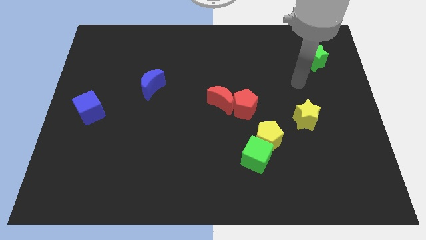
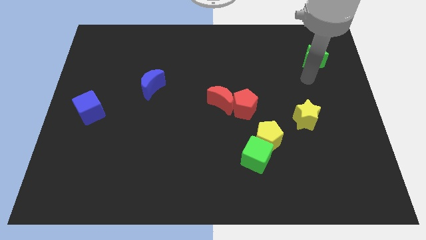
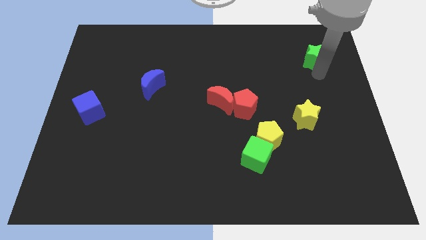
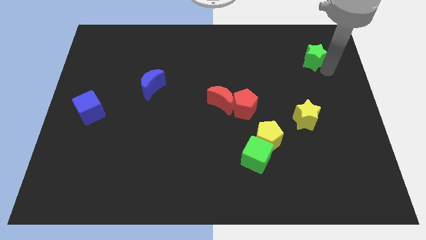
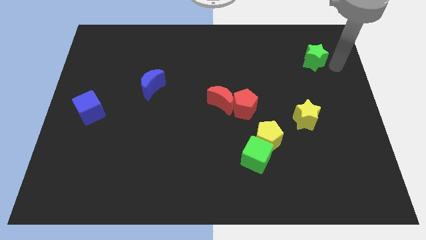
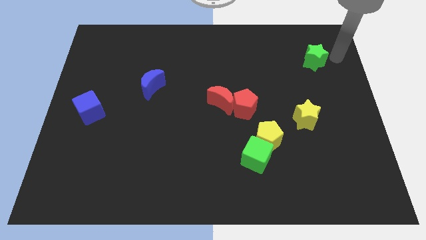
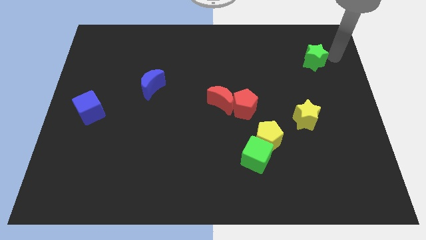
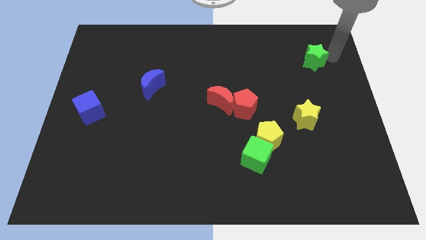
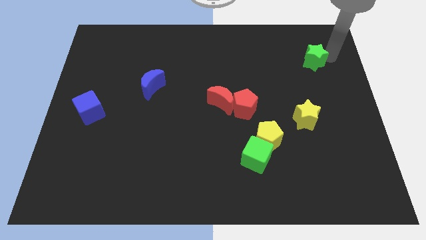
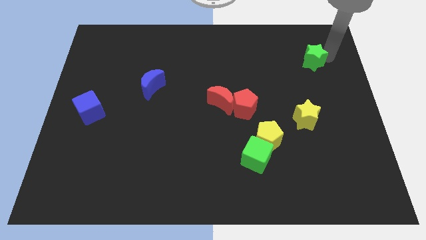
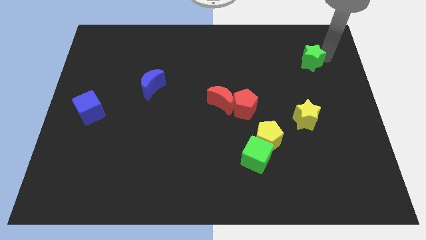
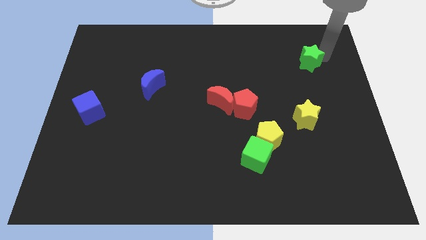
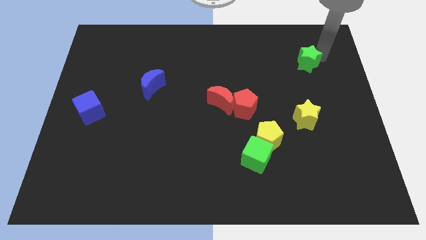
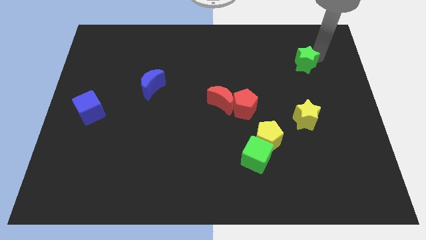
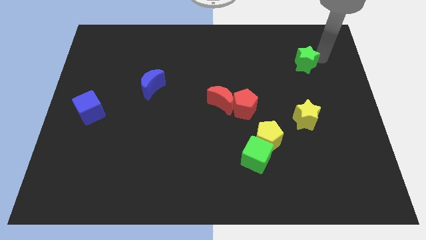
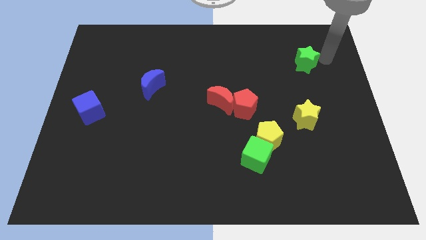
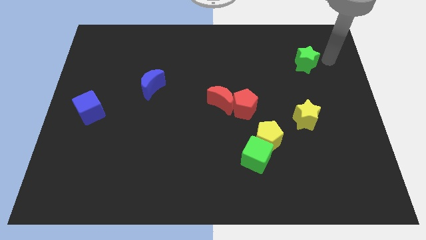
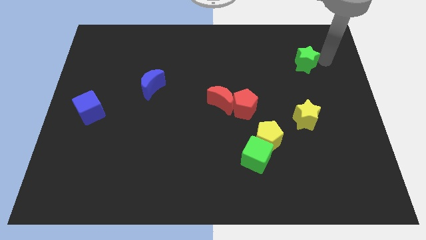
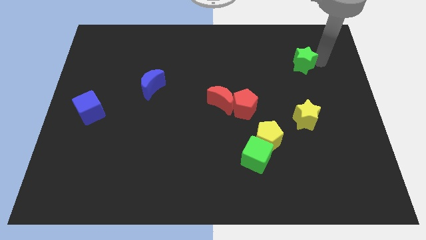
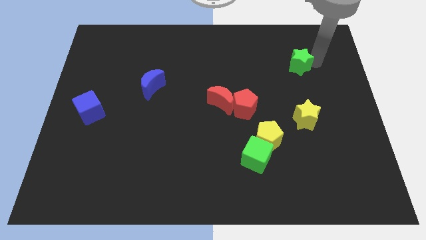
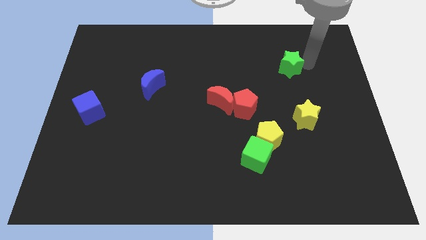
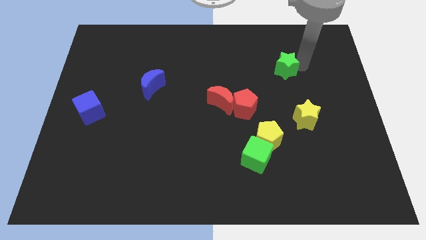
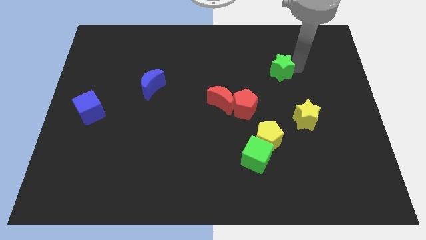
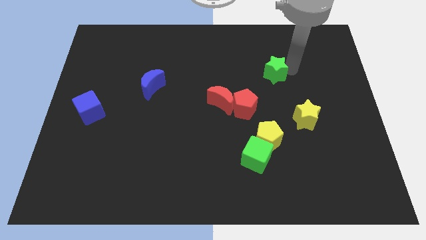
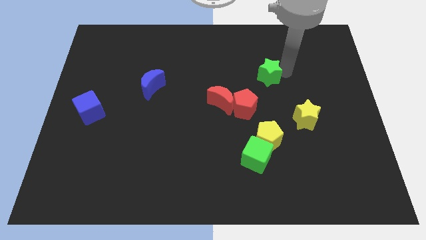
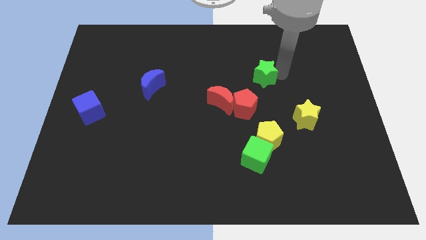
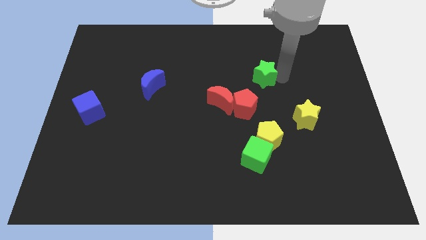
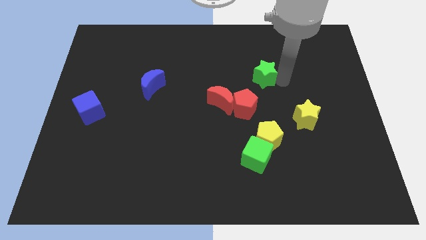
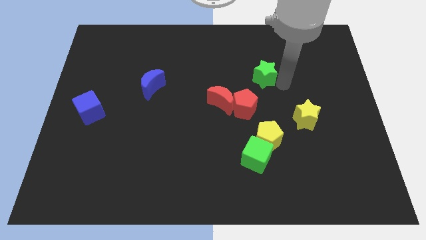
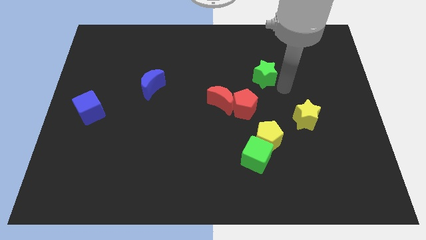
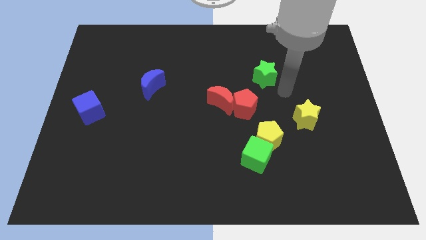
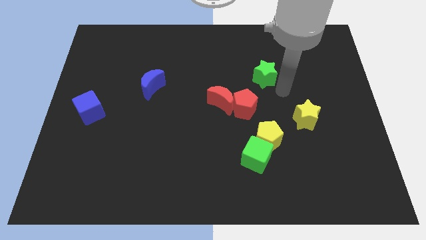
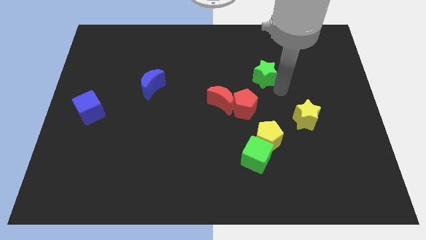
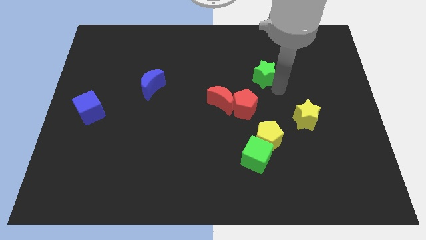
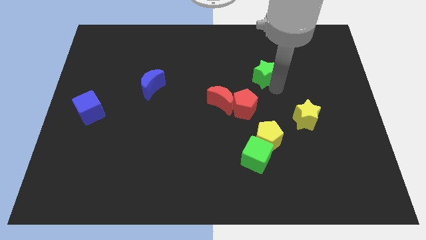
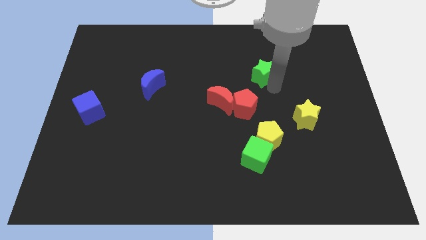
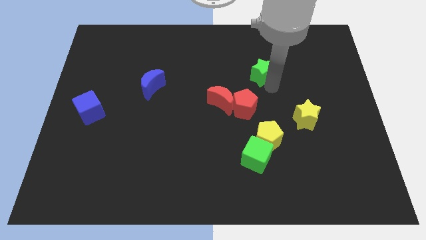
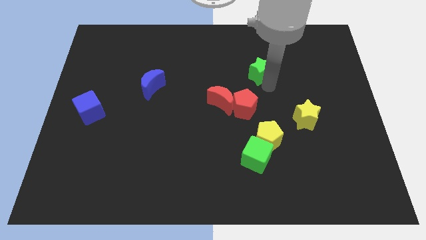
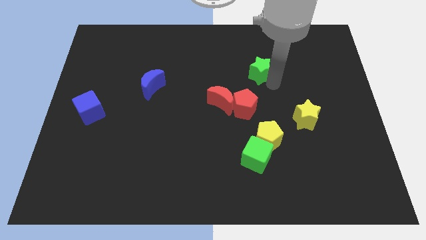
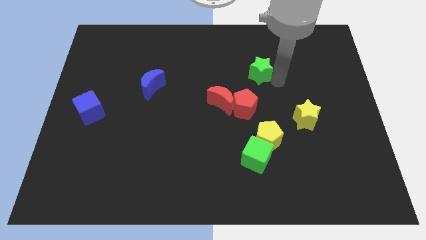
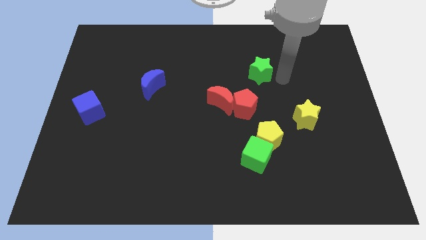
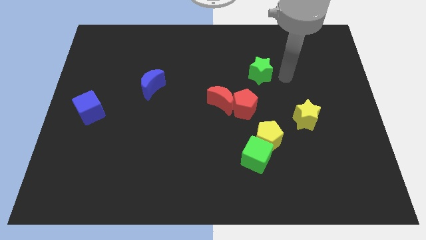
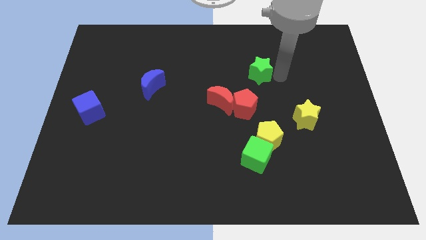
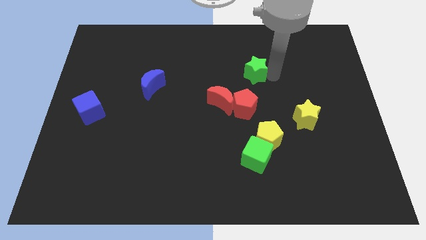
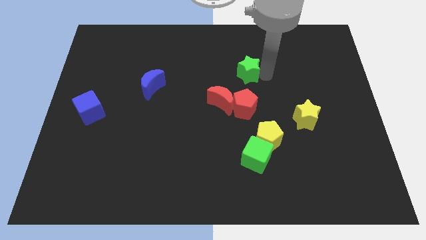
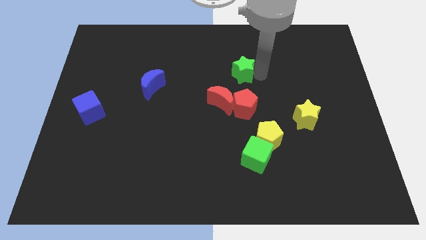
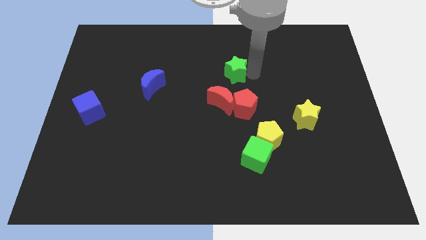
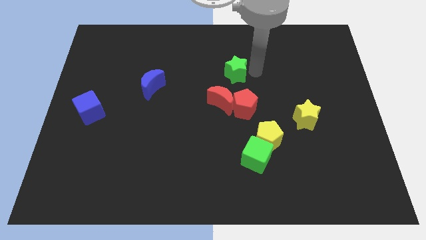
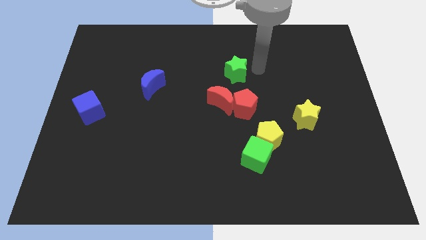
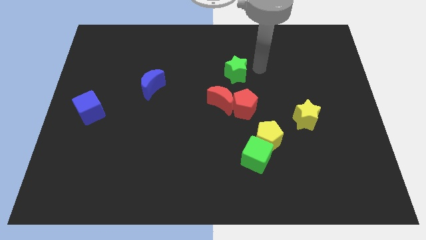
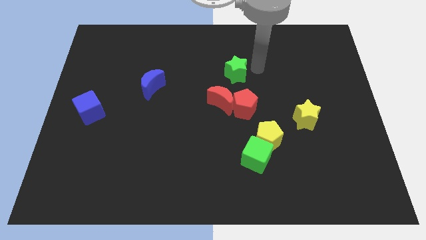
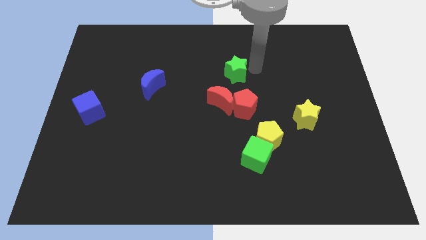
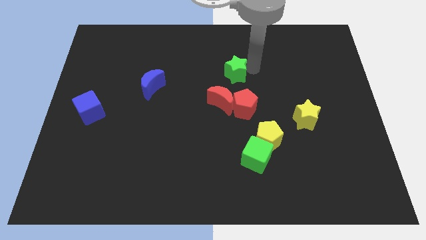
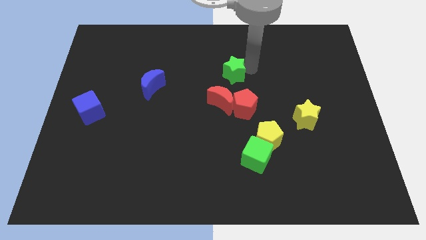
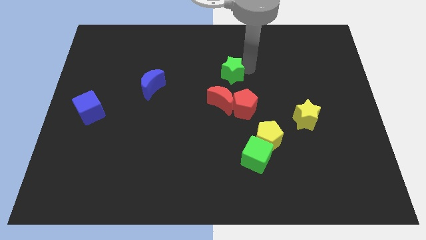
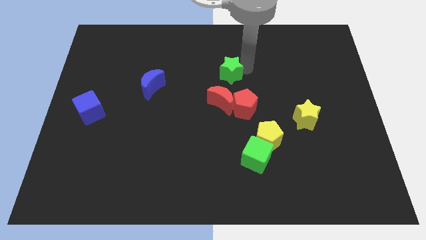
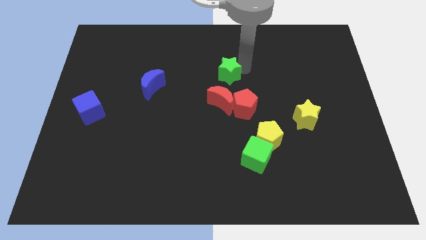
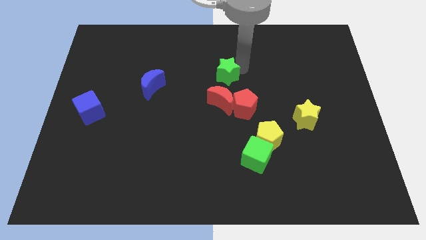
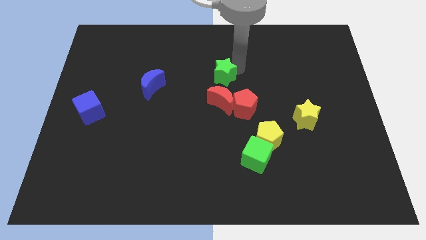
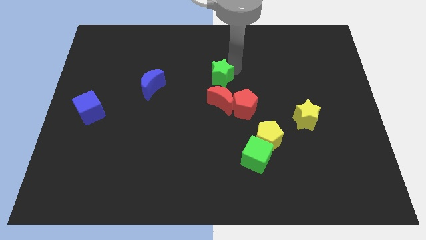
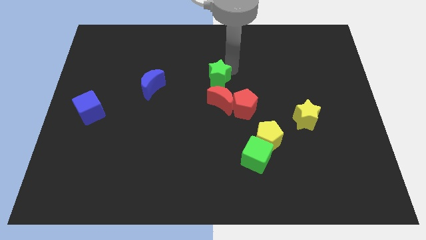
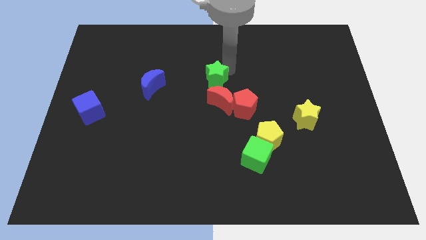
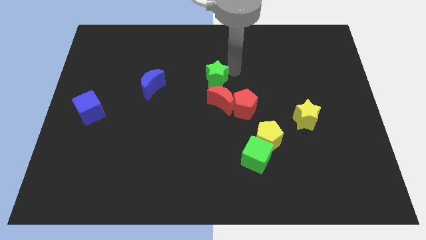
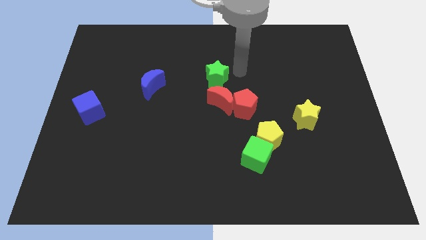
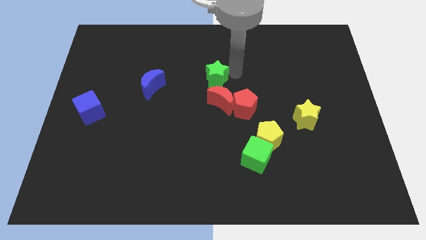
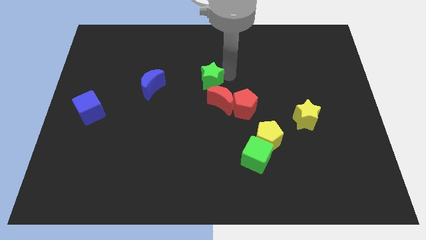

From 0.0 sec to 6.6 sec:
slide the green star right of the blue moon
